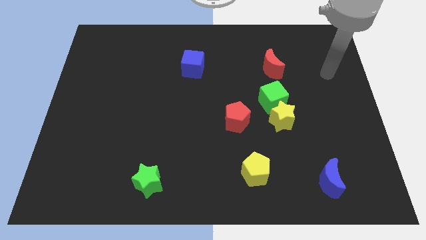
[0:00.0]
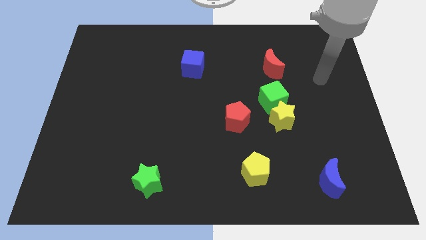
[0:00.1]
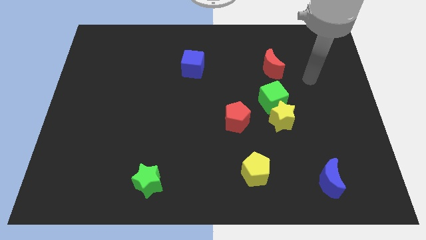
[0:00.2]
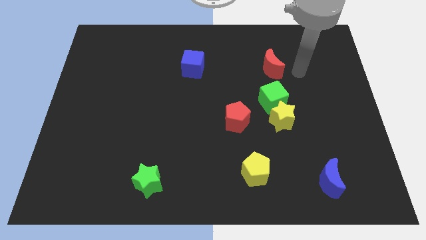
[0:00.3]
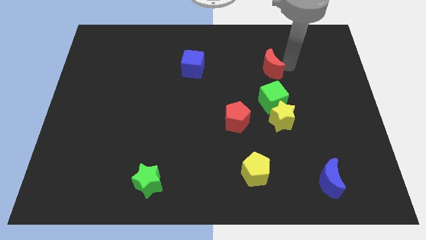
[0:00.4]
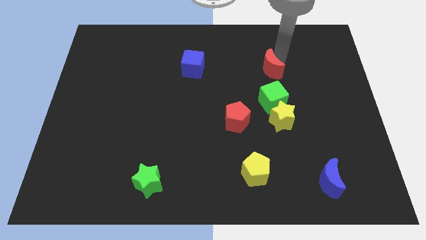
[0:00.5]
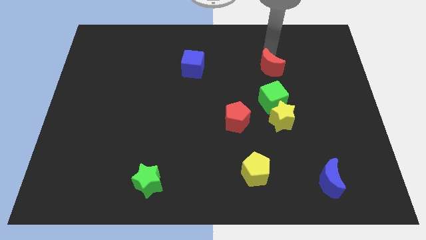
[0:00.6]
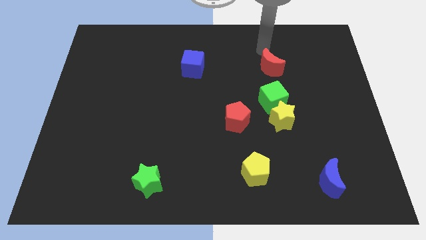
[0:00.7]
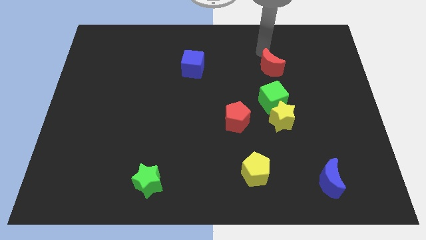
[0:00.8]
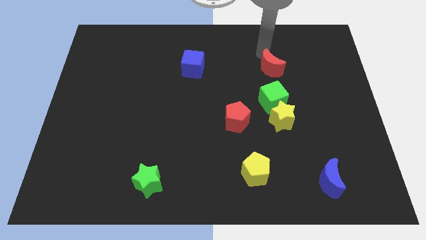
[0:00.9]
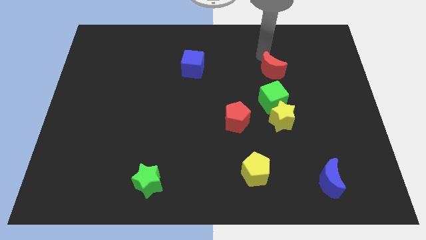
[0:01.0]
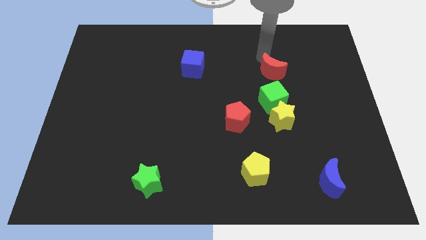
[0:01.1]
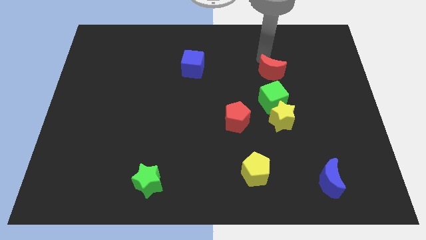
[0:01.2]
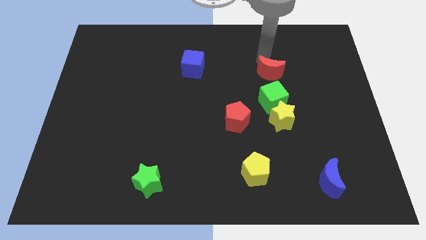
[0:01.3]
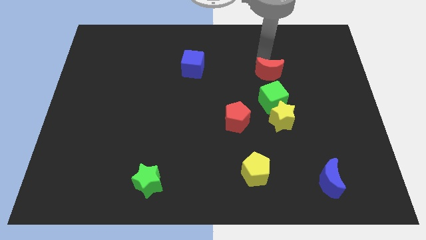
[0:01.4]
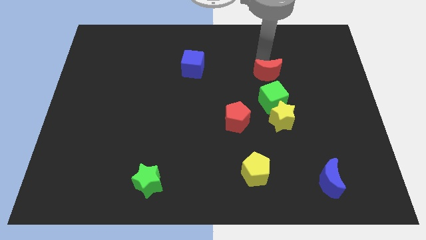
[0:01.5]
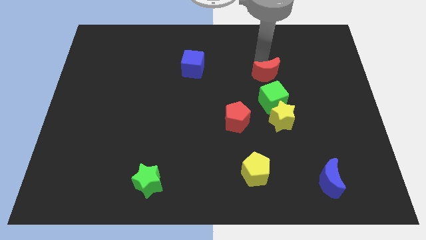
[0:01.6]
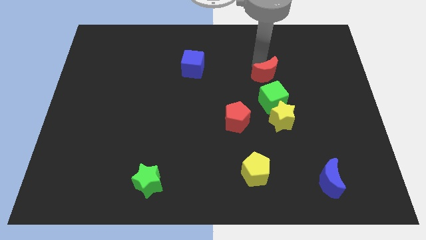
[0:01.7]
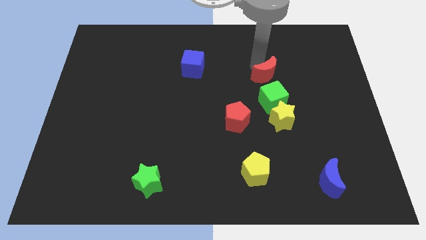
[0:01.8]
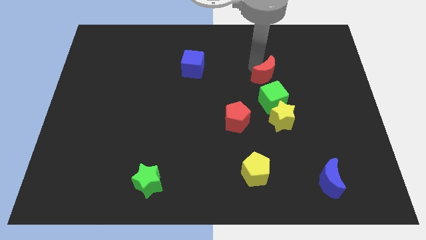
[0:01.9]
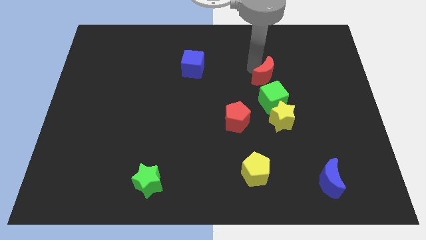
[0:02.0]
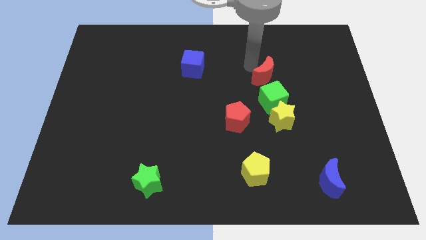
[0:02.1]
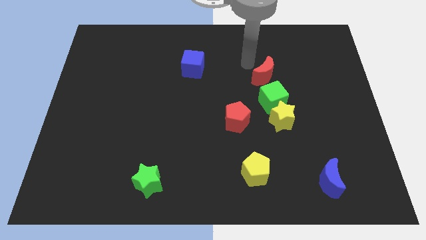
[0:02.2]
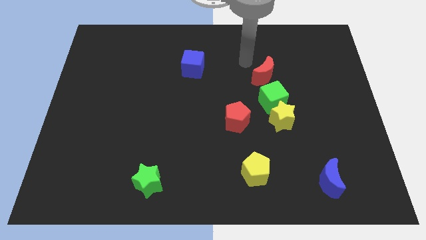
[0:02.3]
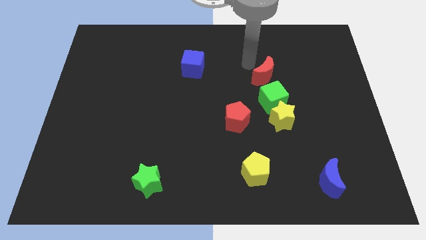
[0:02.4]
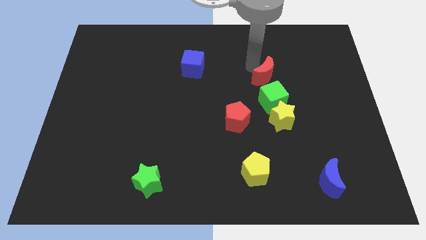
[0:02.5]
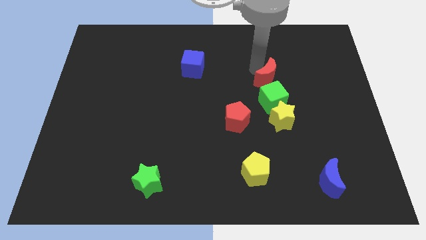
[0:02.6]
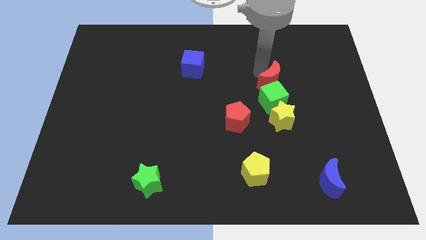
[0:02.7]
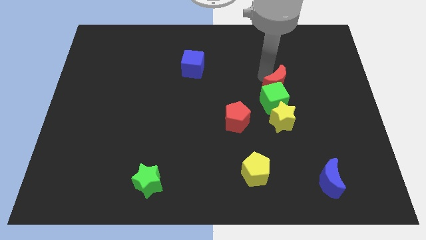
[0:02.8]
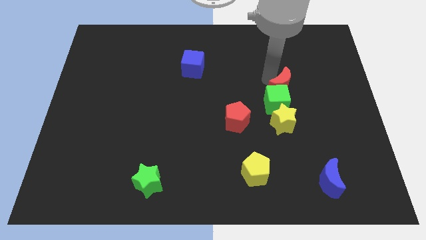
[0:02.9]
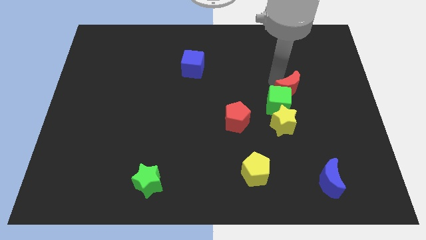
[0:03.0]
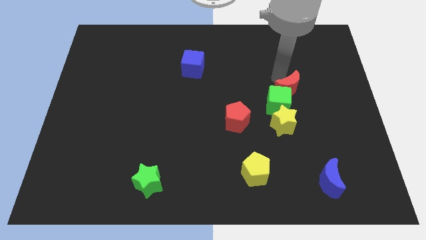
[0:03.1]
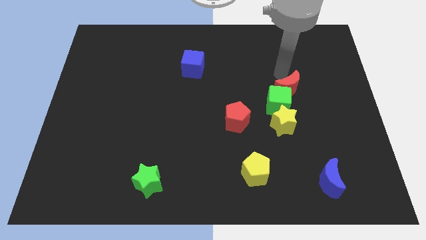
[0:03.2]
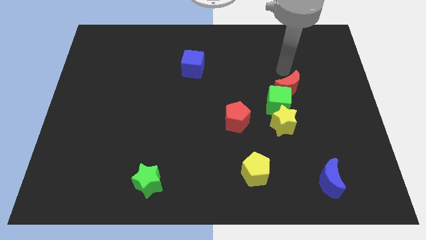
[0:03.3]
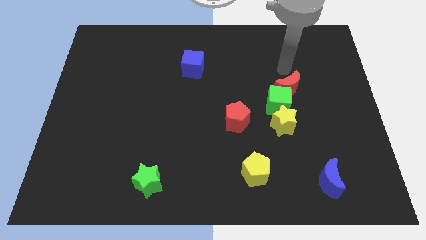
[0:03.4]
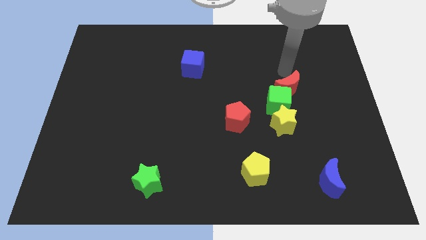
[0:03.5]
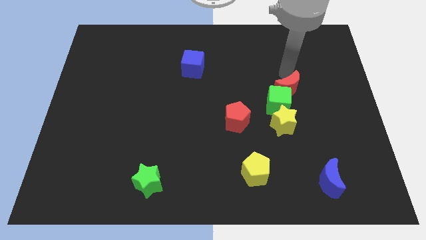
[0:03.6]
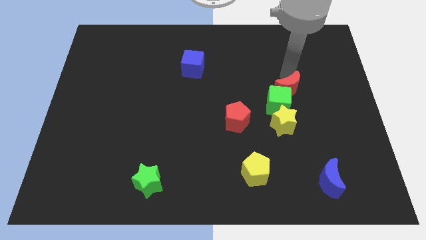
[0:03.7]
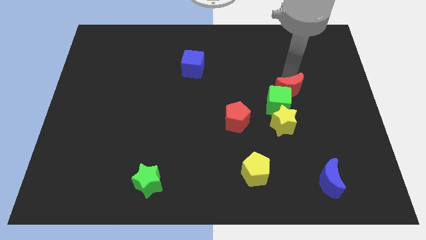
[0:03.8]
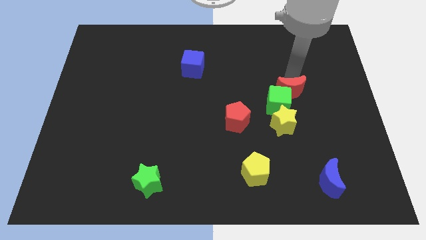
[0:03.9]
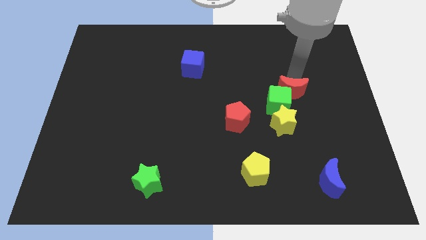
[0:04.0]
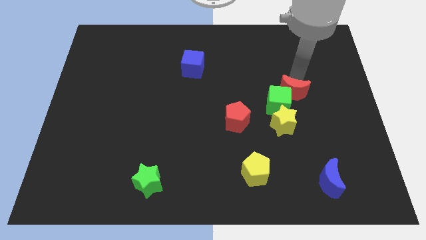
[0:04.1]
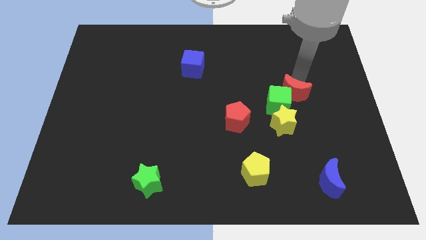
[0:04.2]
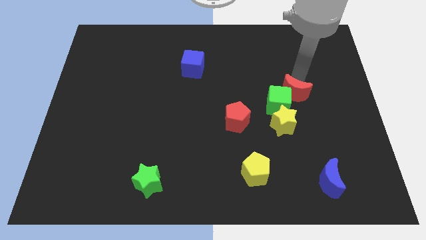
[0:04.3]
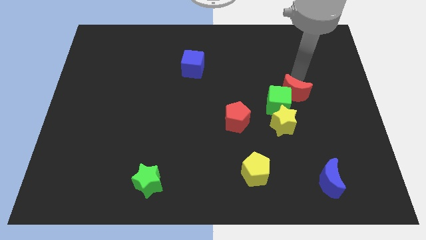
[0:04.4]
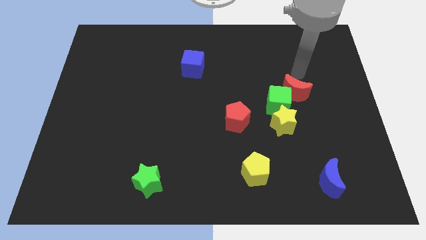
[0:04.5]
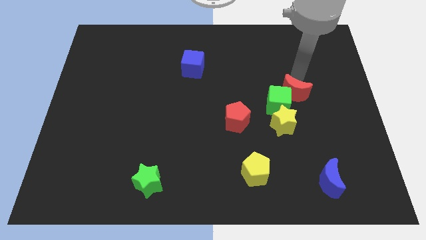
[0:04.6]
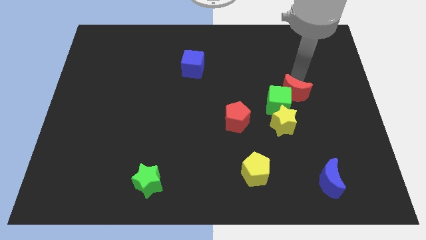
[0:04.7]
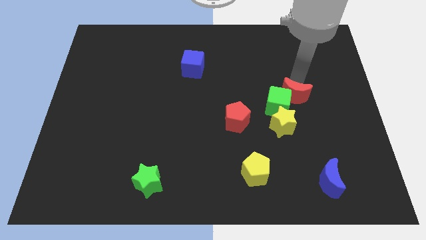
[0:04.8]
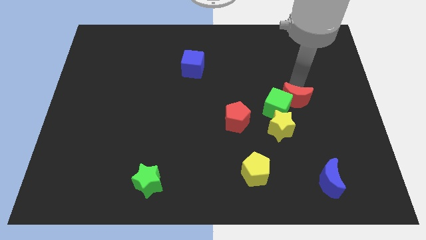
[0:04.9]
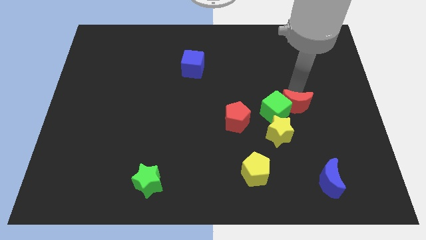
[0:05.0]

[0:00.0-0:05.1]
slide the red moon right of the red pentagon

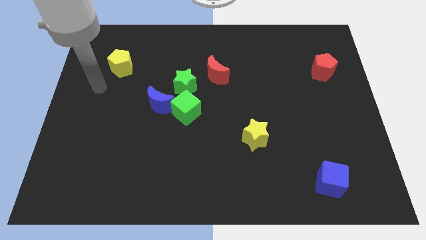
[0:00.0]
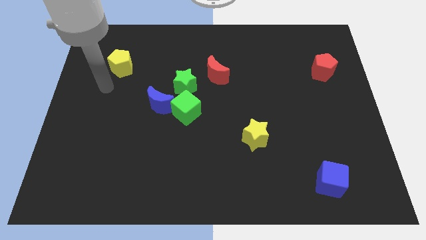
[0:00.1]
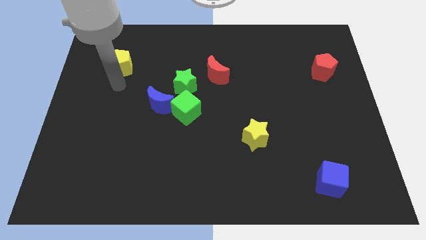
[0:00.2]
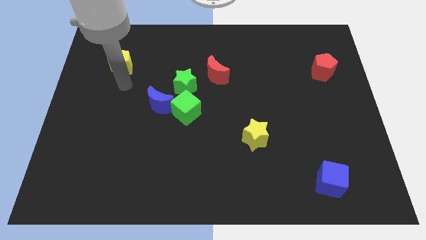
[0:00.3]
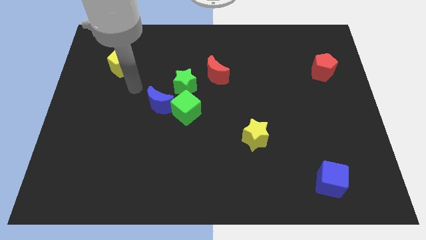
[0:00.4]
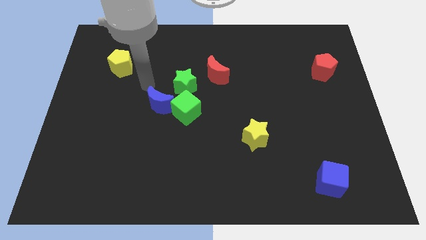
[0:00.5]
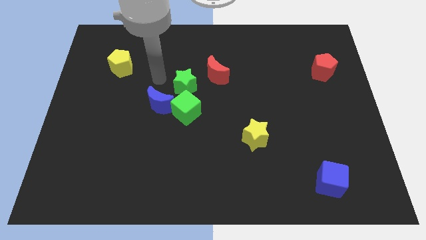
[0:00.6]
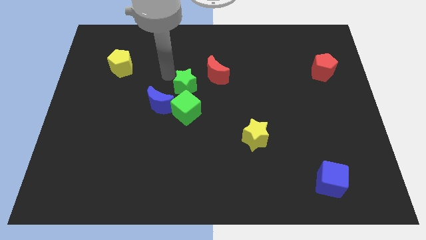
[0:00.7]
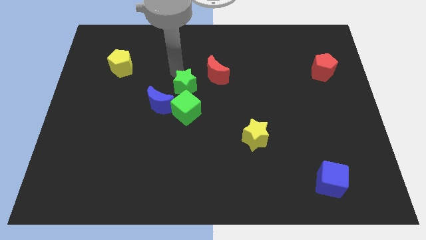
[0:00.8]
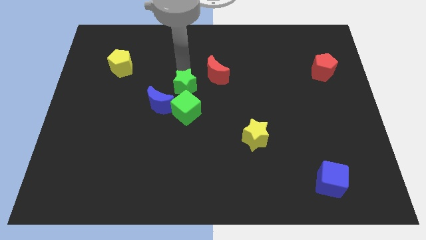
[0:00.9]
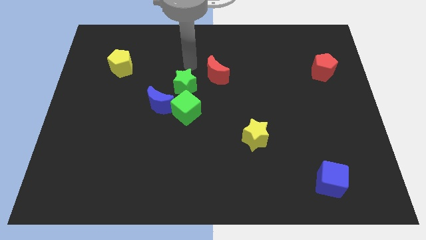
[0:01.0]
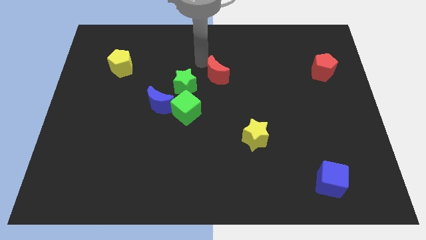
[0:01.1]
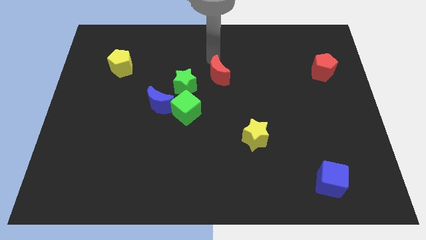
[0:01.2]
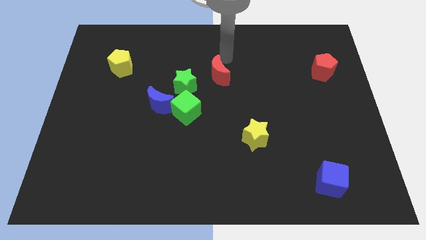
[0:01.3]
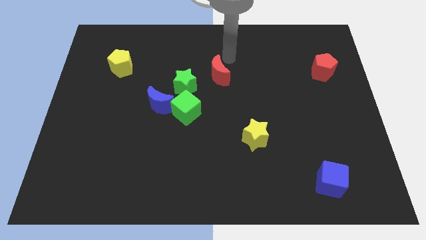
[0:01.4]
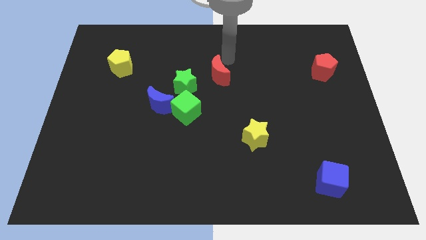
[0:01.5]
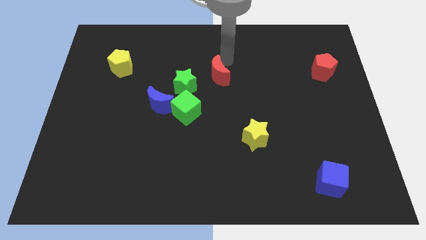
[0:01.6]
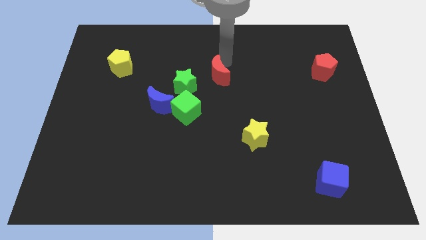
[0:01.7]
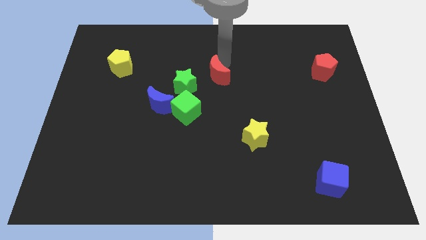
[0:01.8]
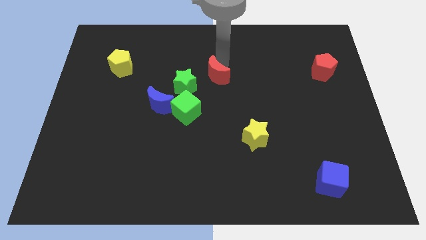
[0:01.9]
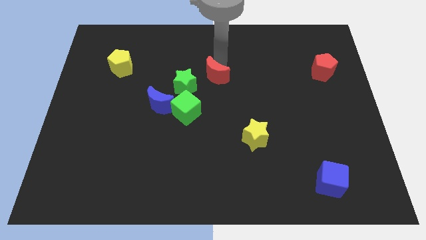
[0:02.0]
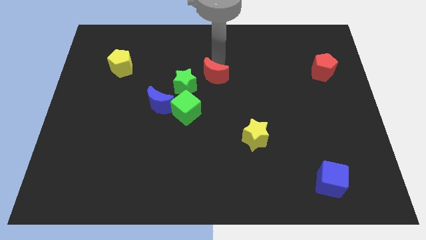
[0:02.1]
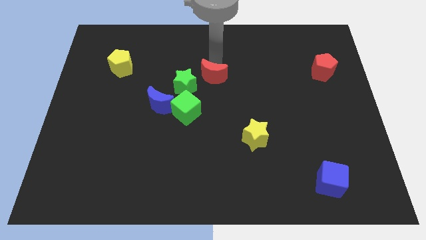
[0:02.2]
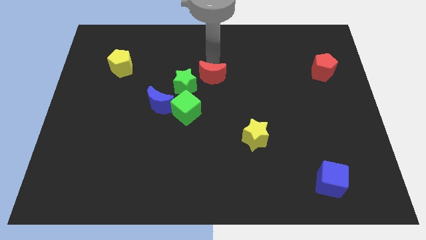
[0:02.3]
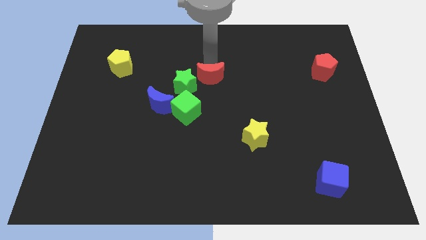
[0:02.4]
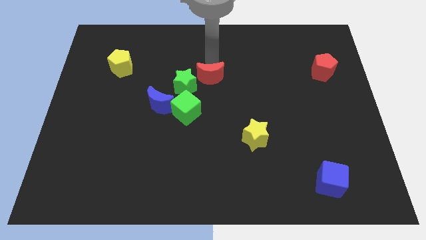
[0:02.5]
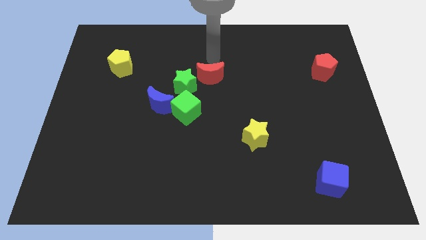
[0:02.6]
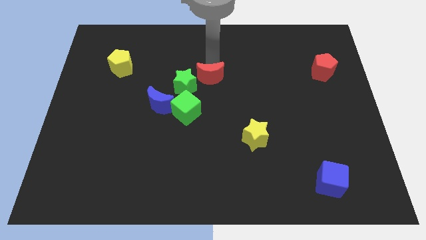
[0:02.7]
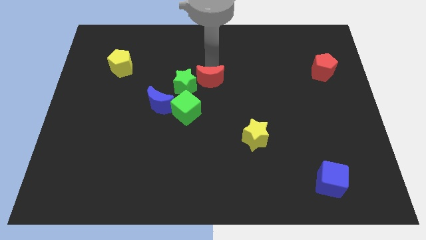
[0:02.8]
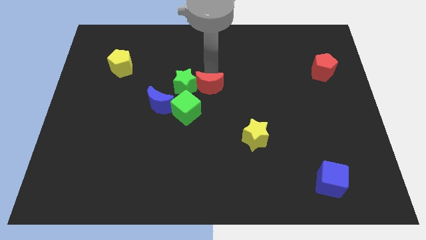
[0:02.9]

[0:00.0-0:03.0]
put the red moon to the bottom right side of the green star
